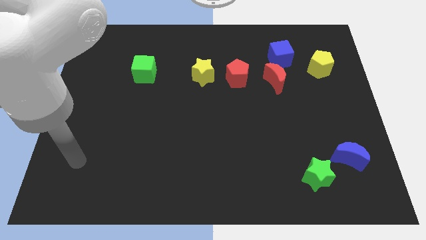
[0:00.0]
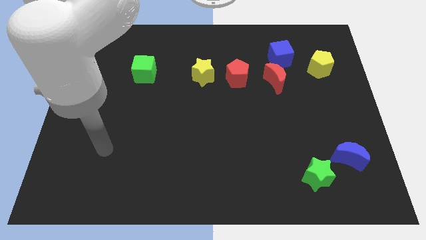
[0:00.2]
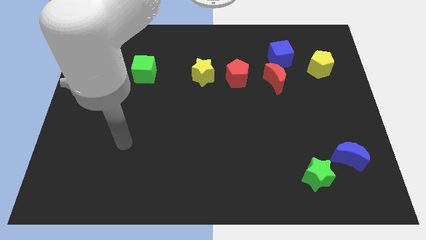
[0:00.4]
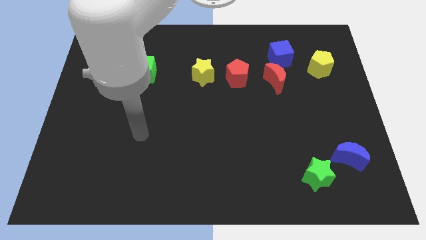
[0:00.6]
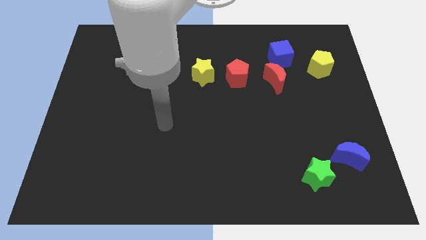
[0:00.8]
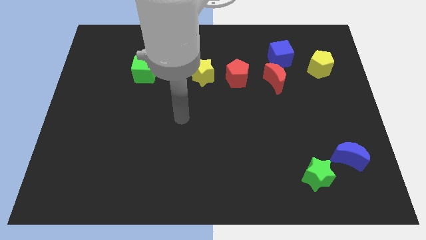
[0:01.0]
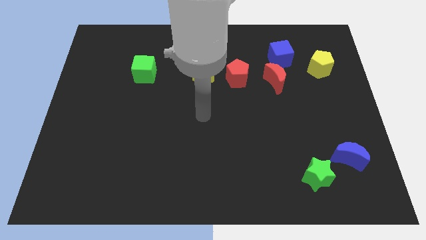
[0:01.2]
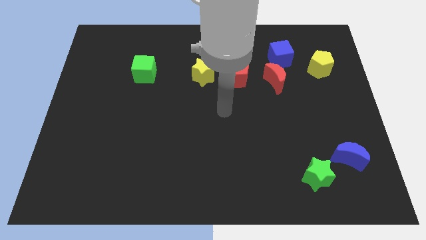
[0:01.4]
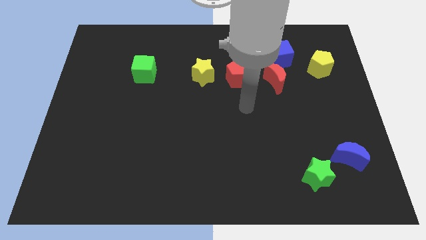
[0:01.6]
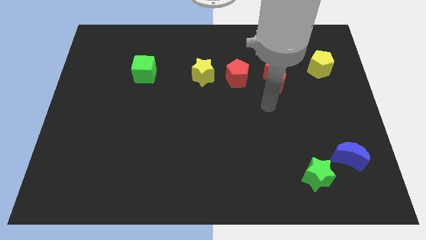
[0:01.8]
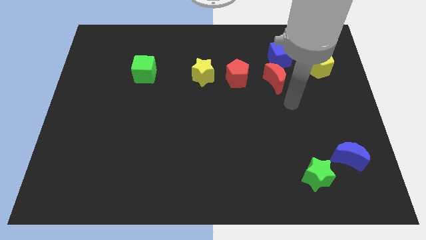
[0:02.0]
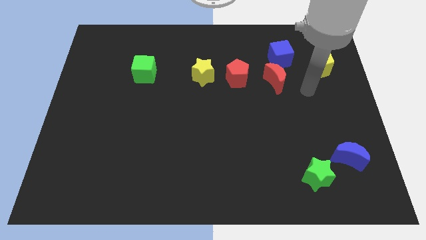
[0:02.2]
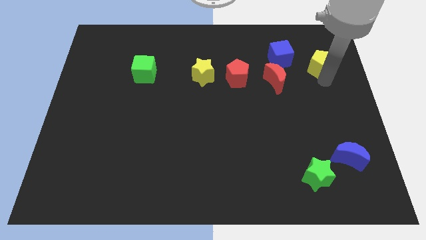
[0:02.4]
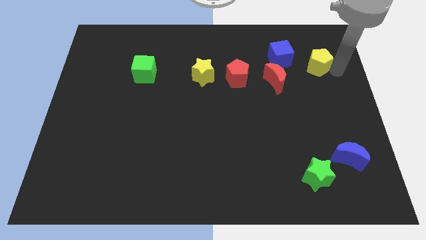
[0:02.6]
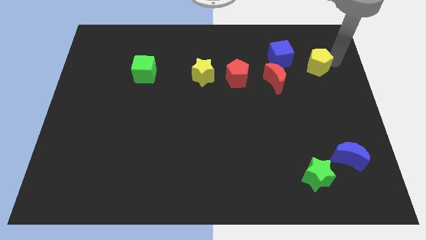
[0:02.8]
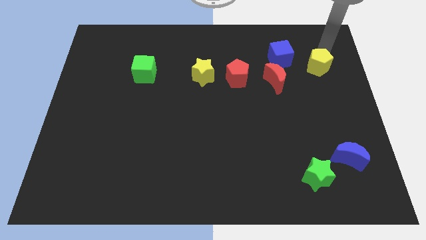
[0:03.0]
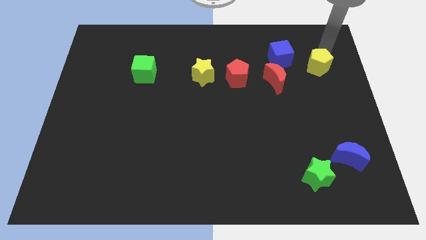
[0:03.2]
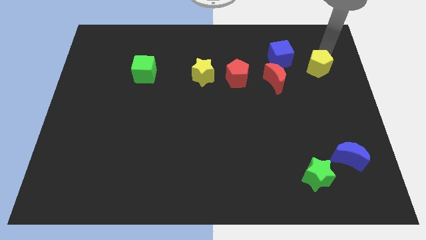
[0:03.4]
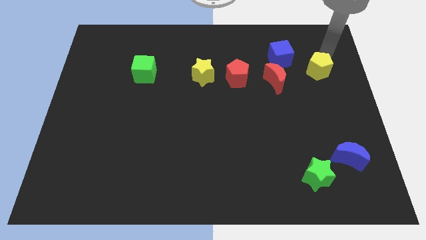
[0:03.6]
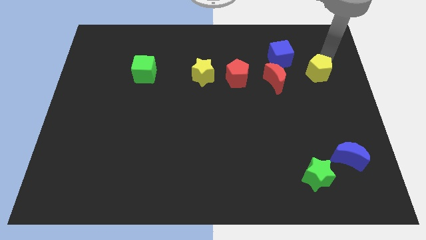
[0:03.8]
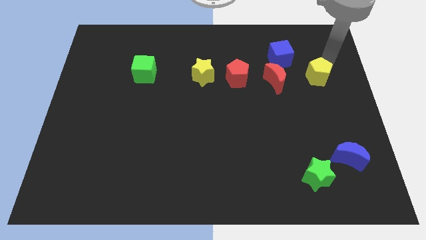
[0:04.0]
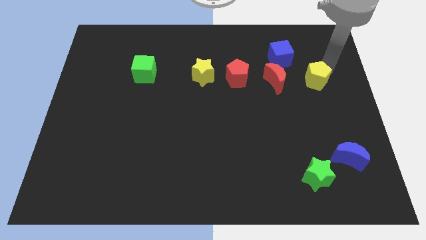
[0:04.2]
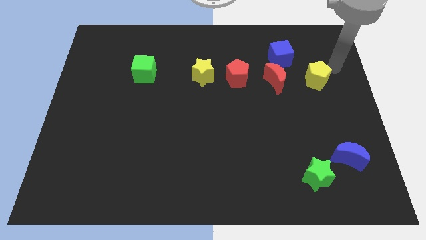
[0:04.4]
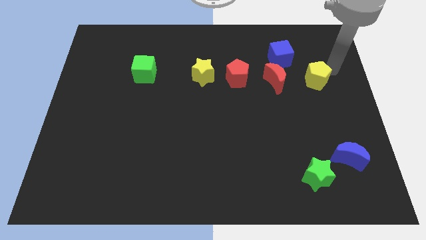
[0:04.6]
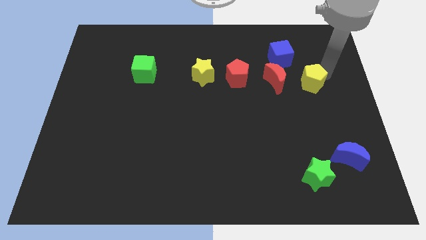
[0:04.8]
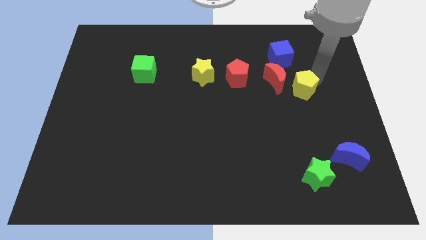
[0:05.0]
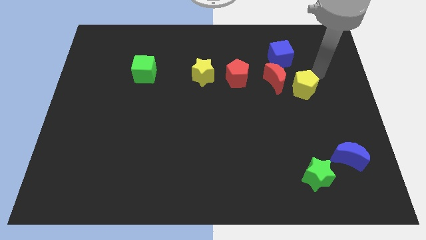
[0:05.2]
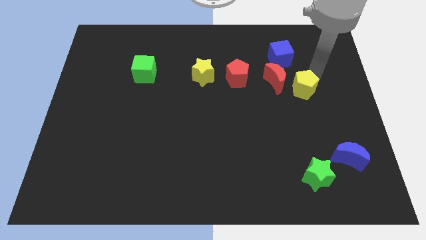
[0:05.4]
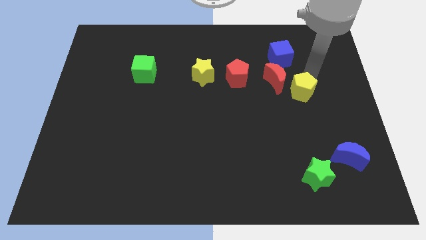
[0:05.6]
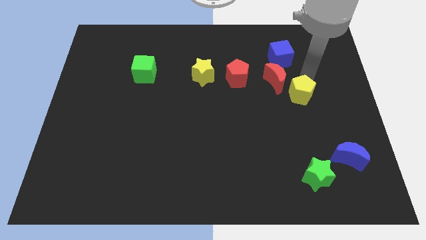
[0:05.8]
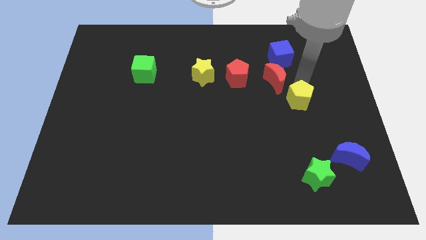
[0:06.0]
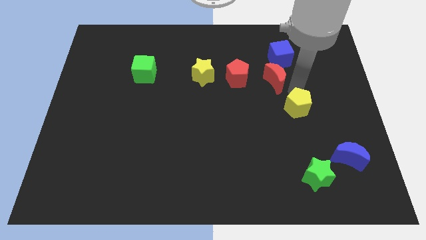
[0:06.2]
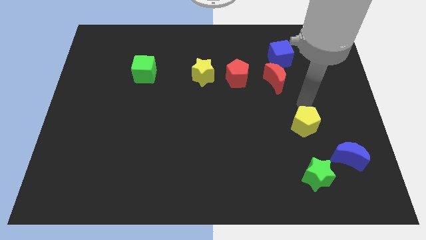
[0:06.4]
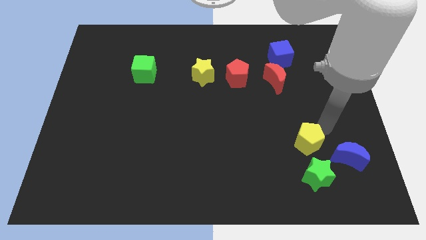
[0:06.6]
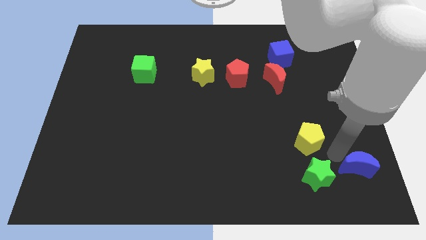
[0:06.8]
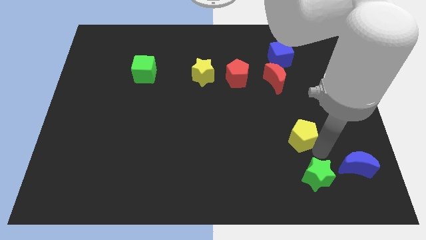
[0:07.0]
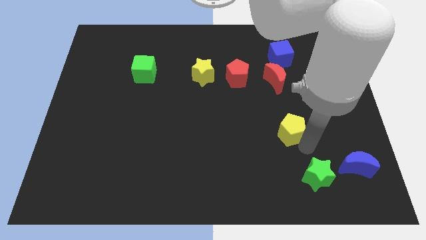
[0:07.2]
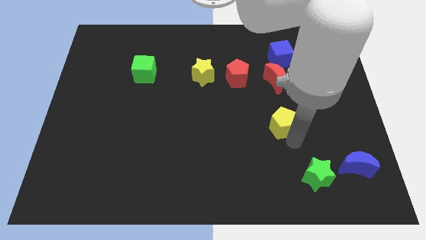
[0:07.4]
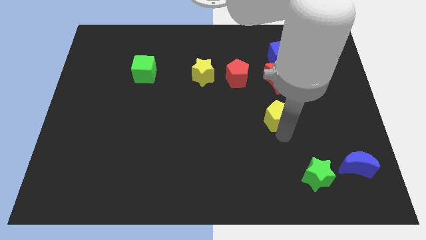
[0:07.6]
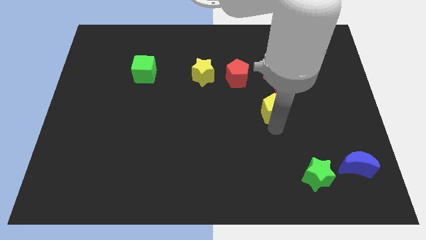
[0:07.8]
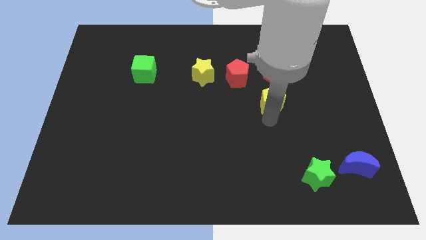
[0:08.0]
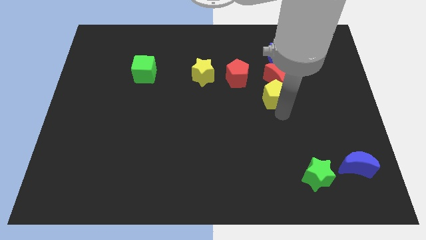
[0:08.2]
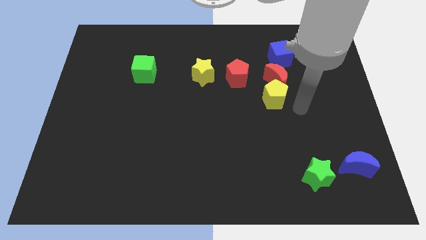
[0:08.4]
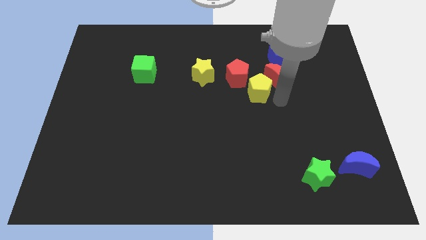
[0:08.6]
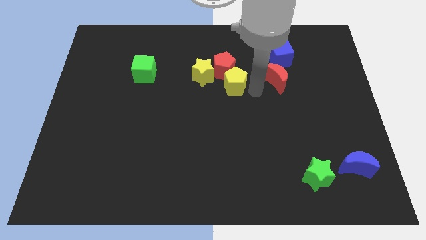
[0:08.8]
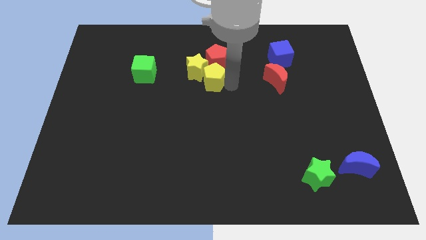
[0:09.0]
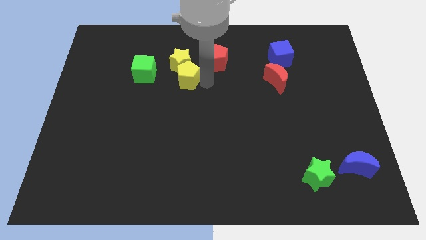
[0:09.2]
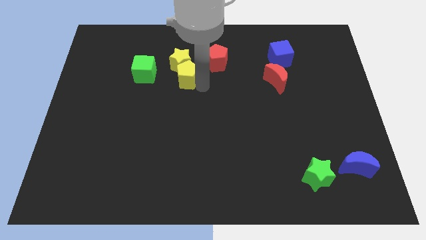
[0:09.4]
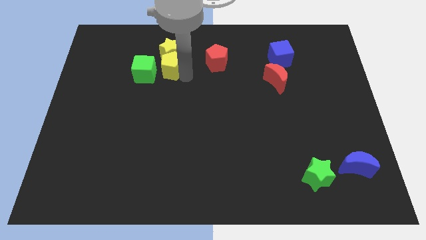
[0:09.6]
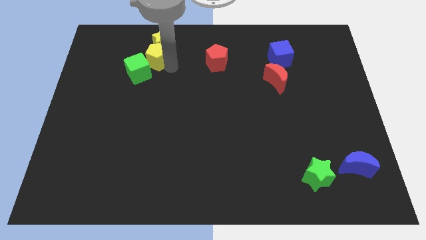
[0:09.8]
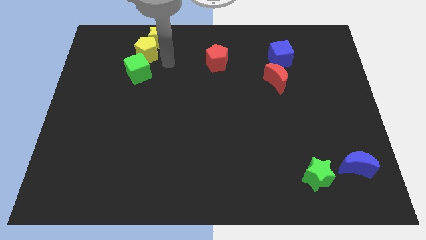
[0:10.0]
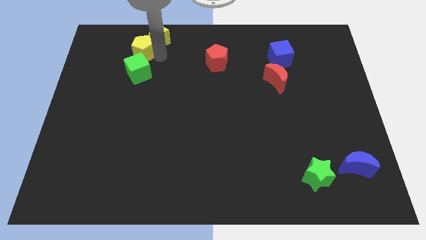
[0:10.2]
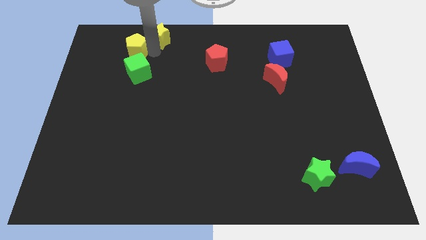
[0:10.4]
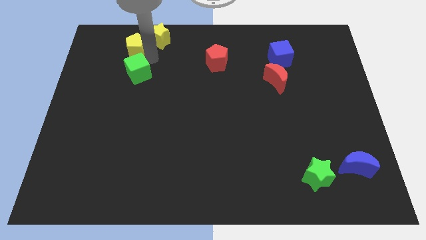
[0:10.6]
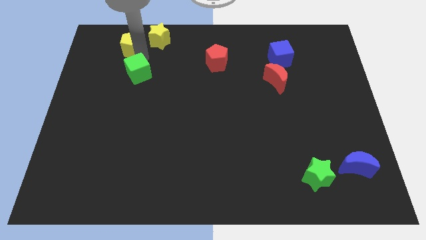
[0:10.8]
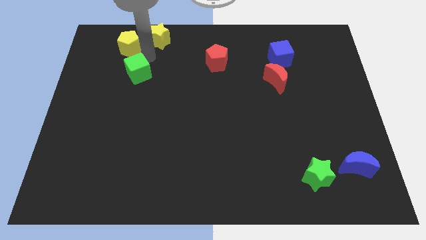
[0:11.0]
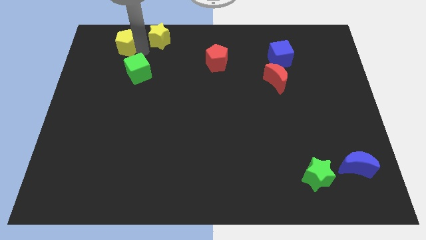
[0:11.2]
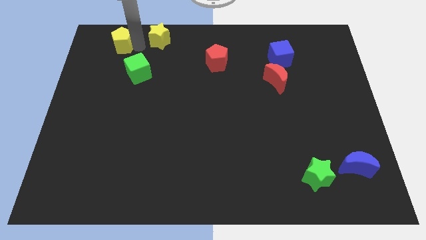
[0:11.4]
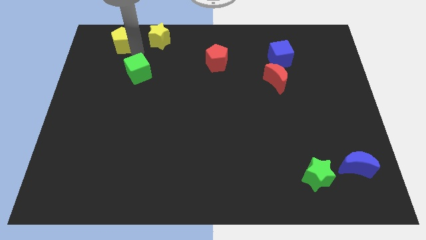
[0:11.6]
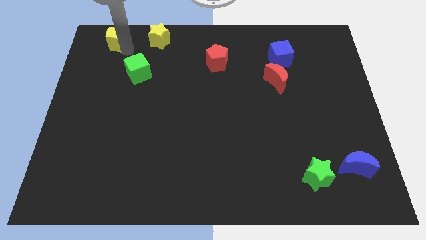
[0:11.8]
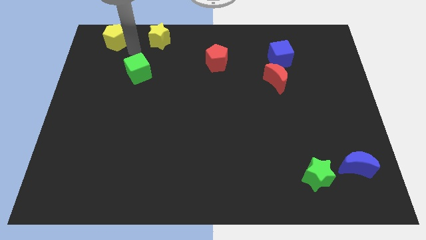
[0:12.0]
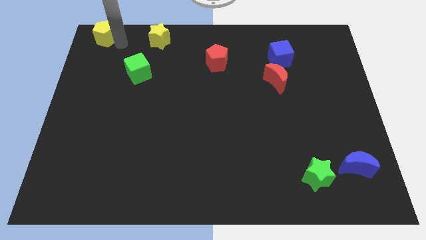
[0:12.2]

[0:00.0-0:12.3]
push the yellow pentagon to the top left
